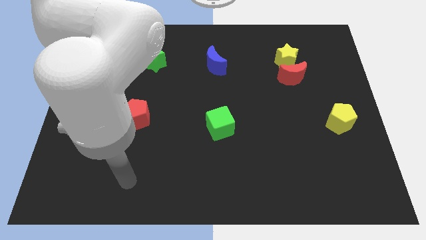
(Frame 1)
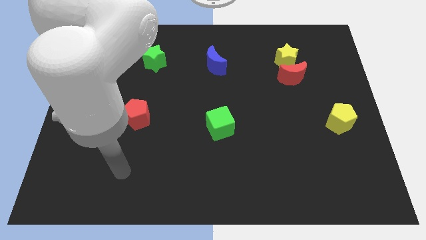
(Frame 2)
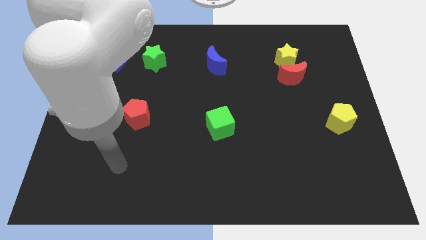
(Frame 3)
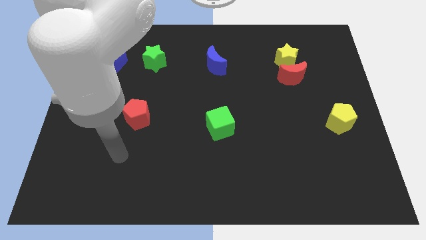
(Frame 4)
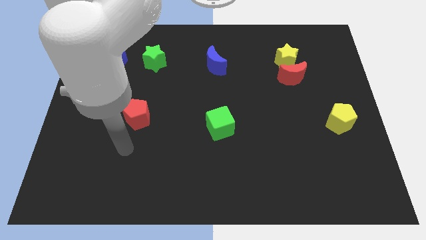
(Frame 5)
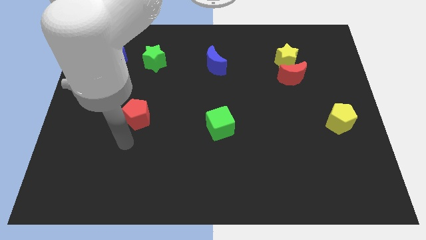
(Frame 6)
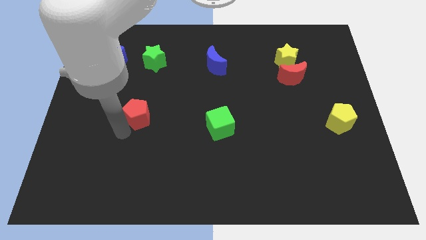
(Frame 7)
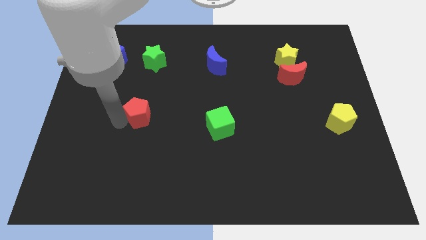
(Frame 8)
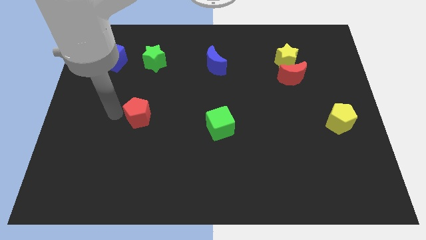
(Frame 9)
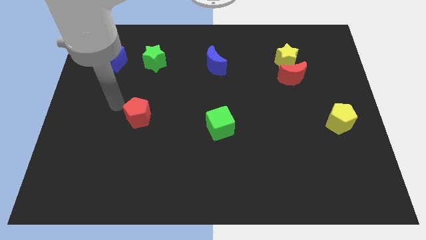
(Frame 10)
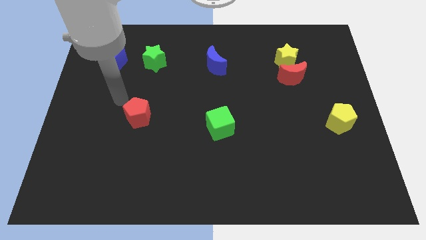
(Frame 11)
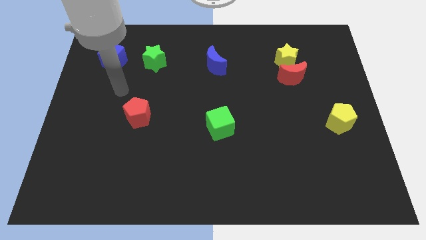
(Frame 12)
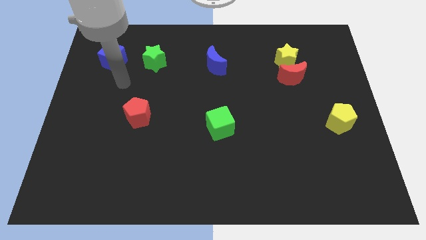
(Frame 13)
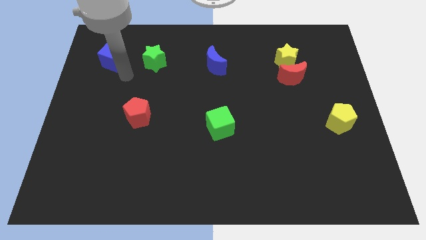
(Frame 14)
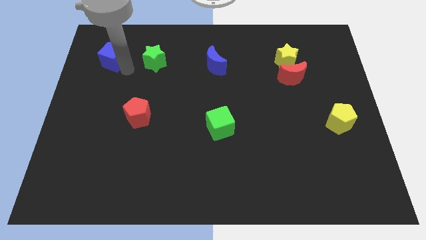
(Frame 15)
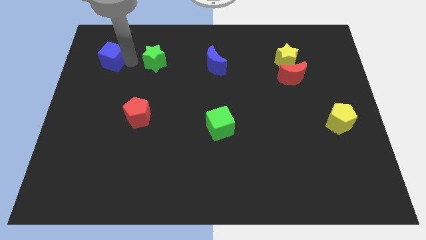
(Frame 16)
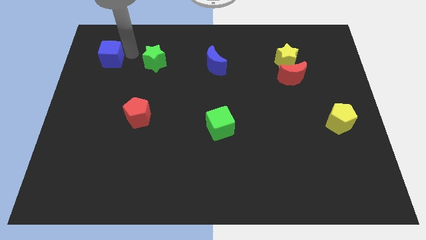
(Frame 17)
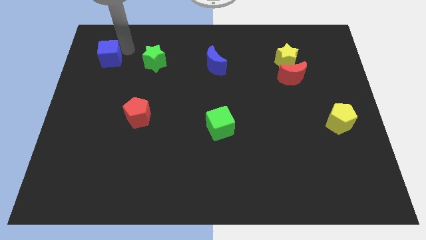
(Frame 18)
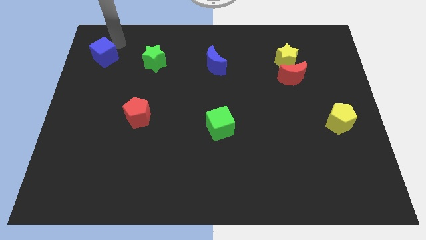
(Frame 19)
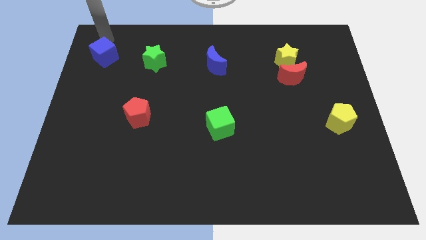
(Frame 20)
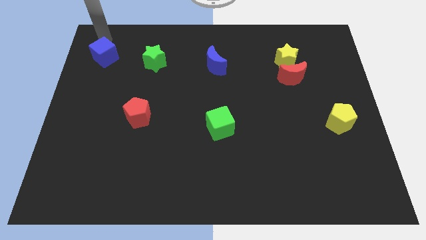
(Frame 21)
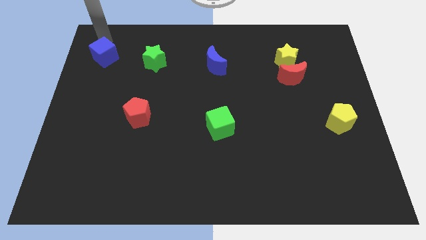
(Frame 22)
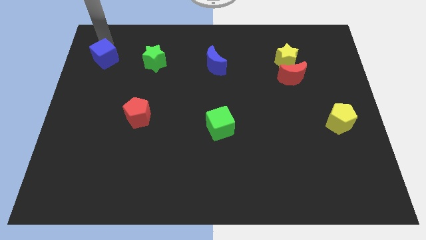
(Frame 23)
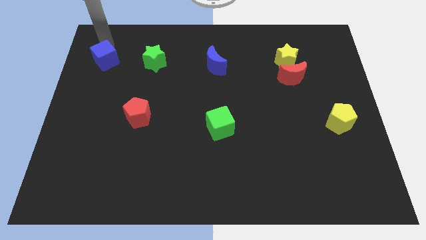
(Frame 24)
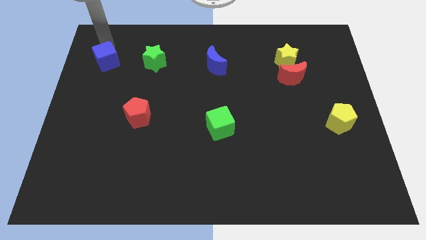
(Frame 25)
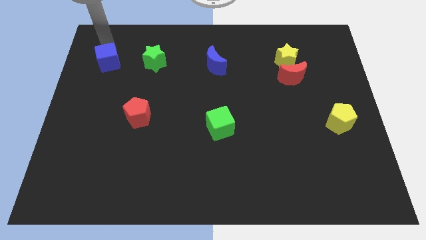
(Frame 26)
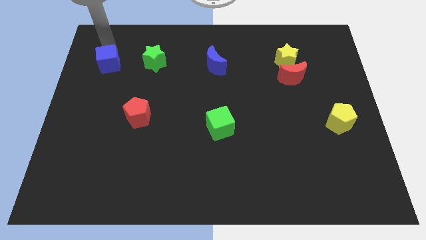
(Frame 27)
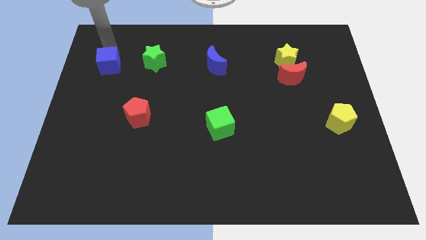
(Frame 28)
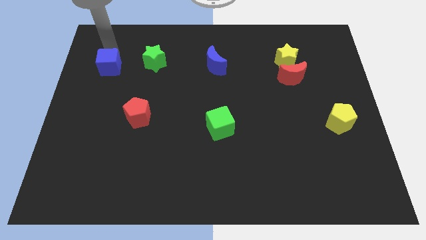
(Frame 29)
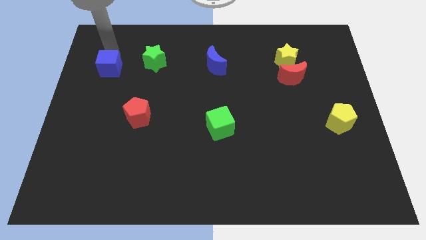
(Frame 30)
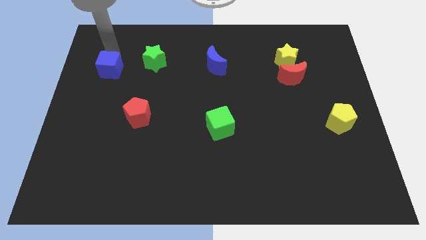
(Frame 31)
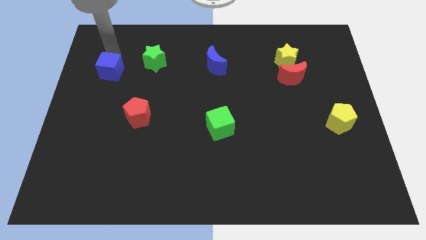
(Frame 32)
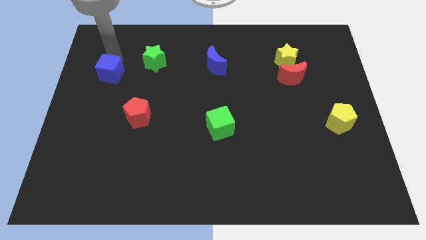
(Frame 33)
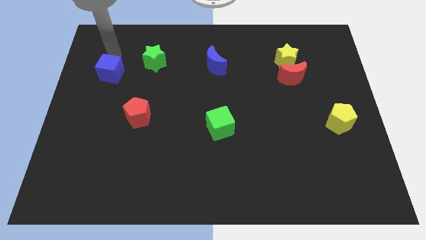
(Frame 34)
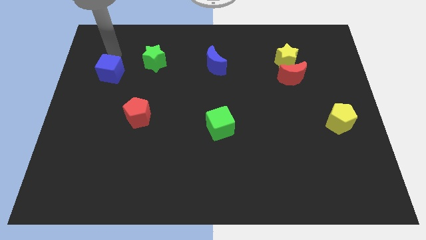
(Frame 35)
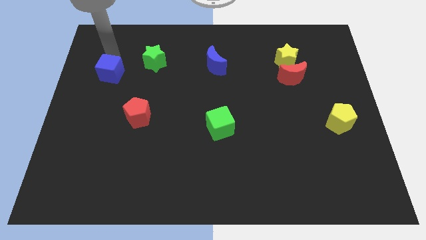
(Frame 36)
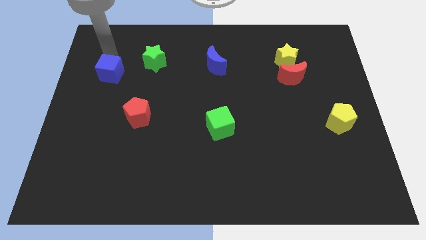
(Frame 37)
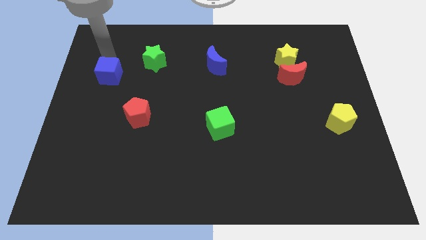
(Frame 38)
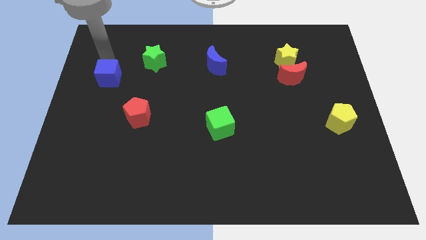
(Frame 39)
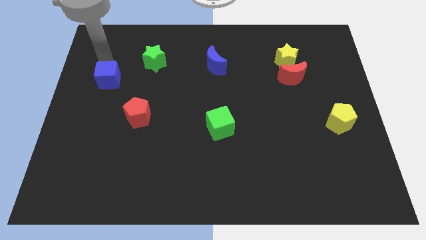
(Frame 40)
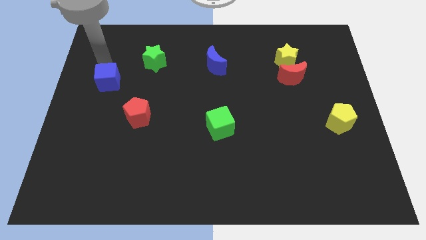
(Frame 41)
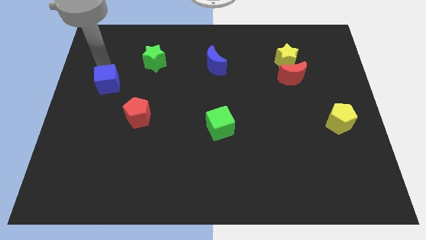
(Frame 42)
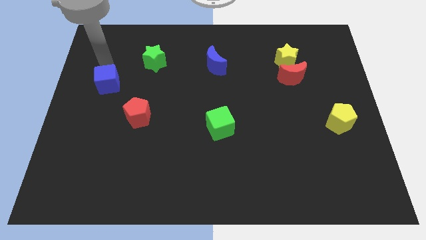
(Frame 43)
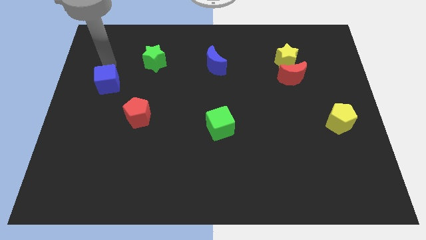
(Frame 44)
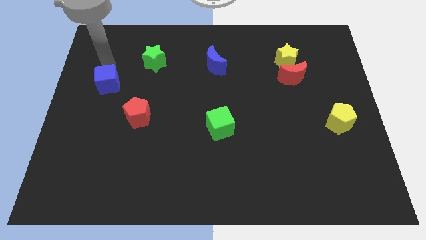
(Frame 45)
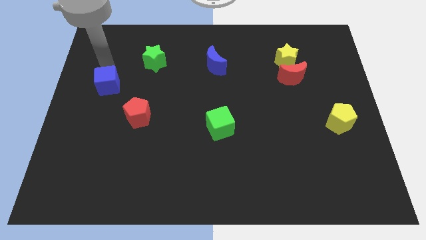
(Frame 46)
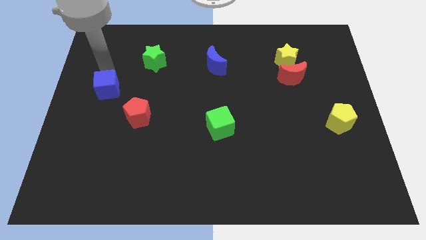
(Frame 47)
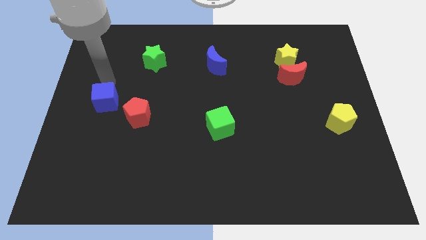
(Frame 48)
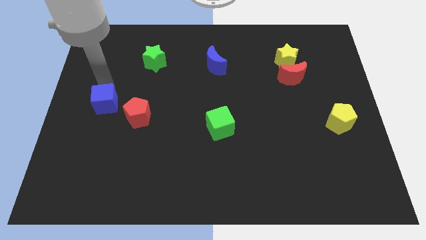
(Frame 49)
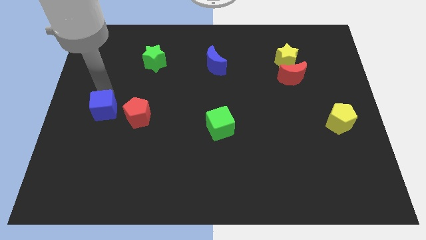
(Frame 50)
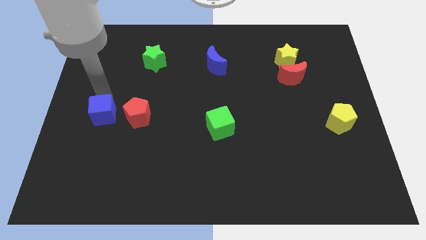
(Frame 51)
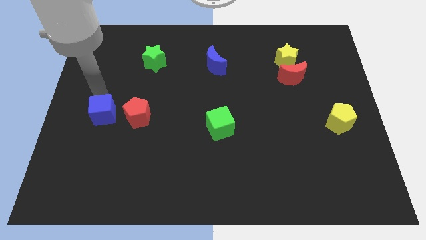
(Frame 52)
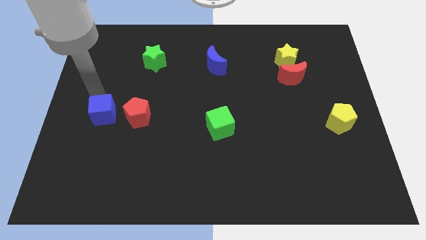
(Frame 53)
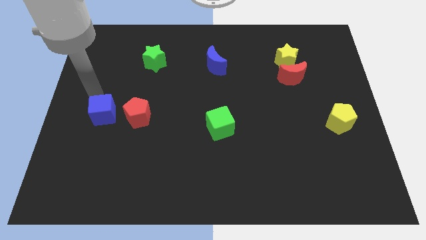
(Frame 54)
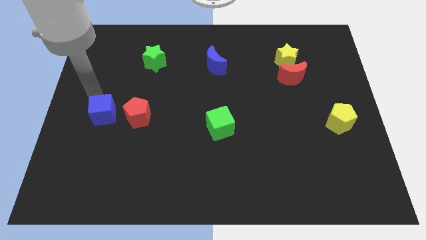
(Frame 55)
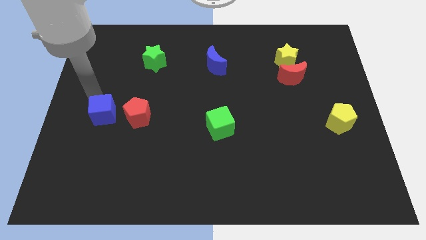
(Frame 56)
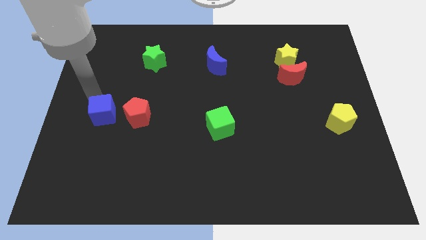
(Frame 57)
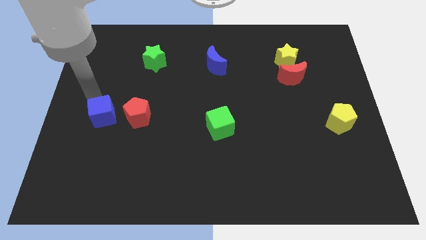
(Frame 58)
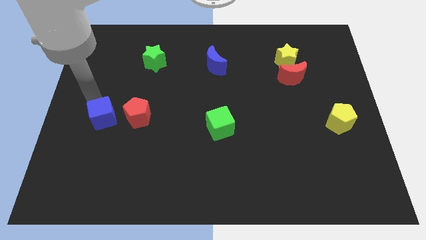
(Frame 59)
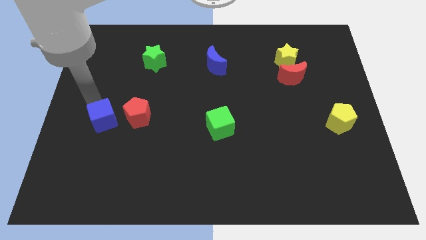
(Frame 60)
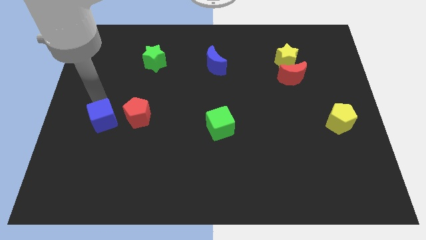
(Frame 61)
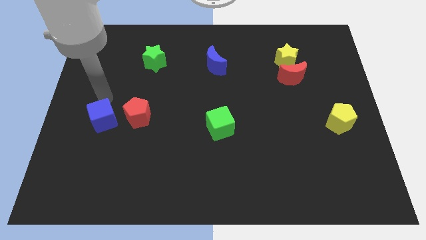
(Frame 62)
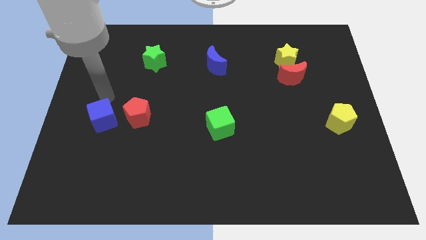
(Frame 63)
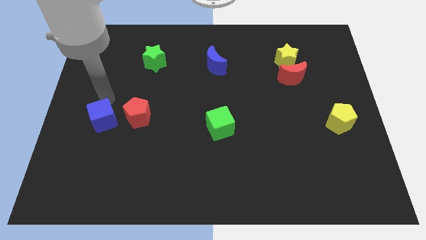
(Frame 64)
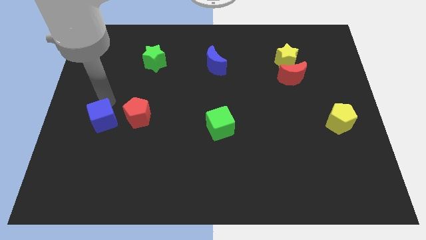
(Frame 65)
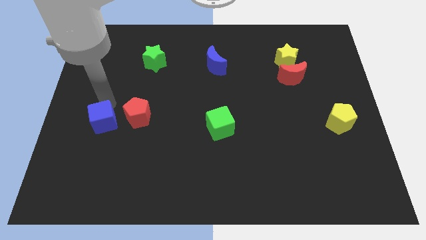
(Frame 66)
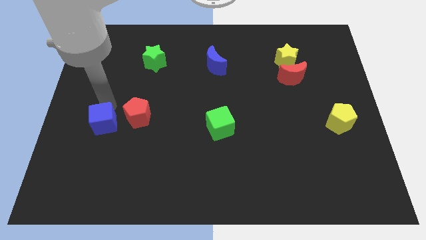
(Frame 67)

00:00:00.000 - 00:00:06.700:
move the blue cube down

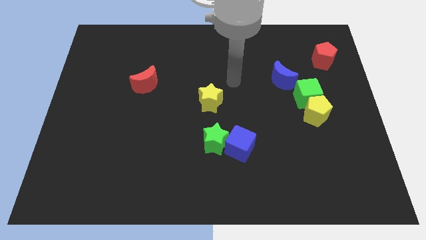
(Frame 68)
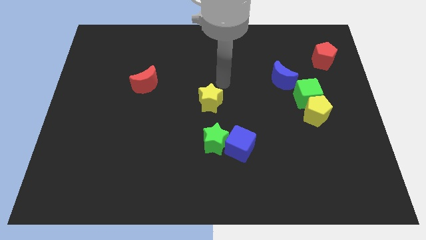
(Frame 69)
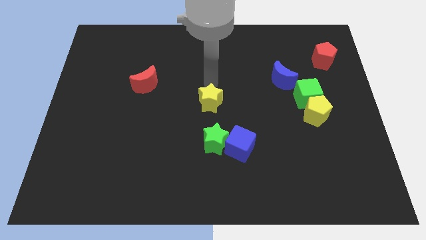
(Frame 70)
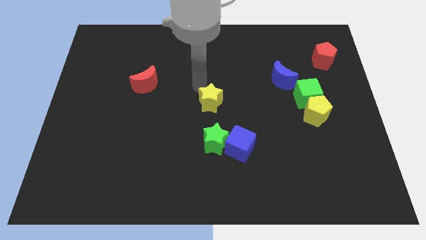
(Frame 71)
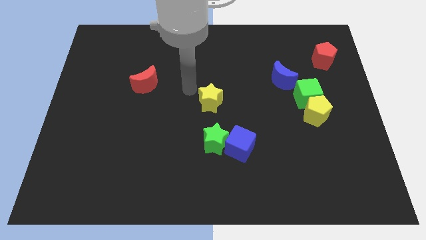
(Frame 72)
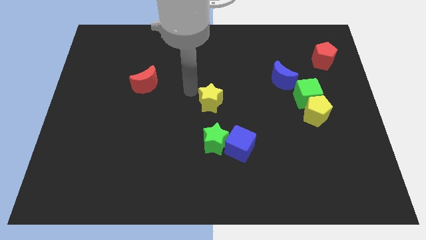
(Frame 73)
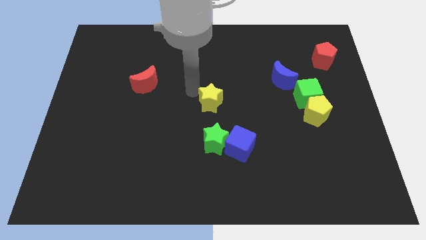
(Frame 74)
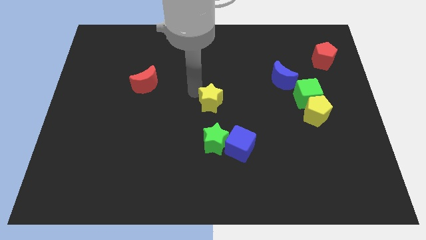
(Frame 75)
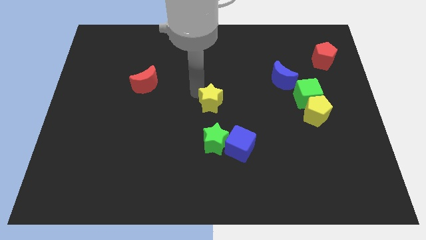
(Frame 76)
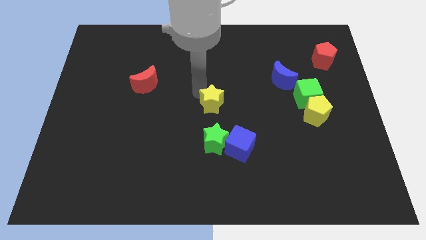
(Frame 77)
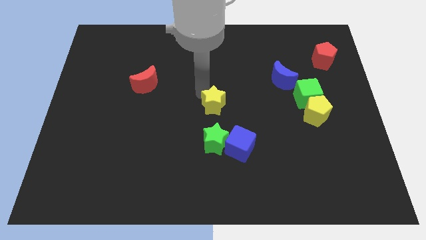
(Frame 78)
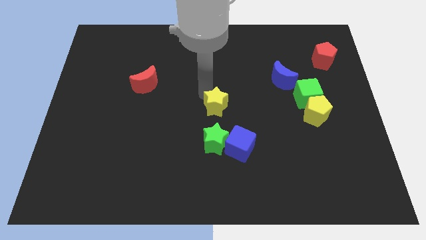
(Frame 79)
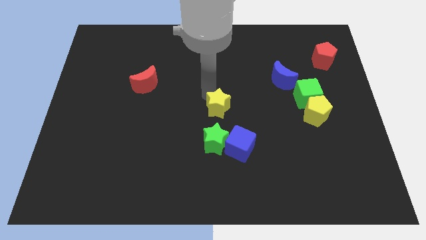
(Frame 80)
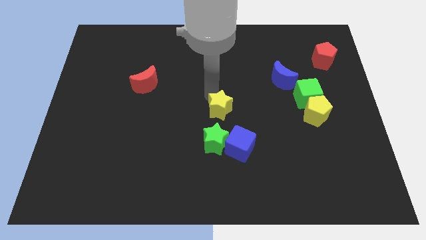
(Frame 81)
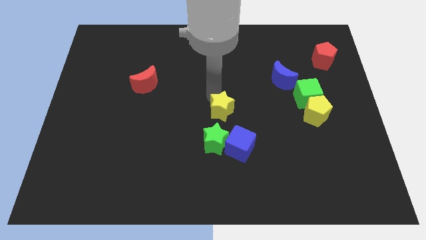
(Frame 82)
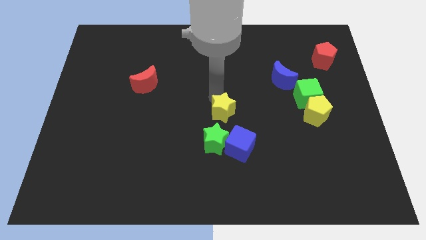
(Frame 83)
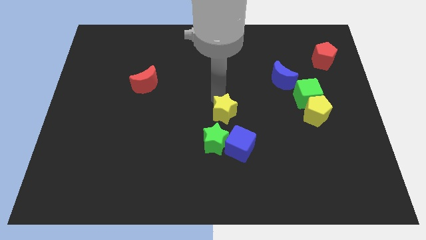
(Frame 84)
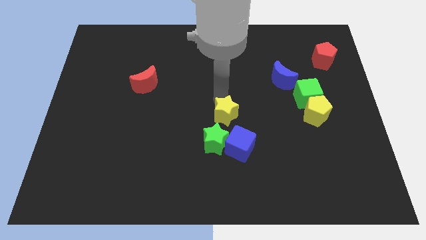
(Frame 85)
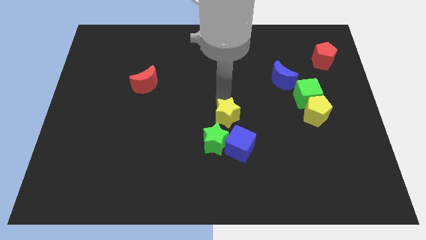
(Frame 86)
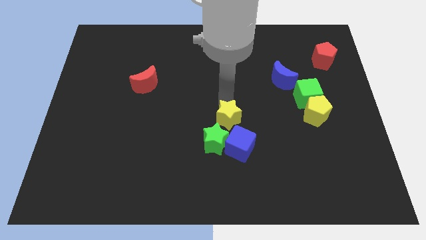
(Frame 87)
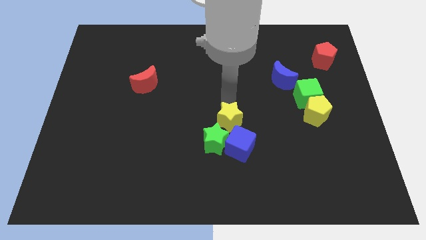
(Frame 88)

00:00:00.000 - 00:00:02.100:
move the yellow star a little bit diagonally down and to the right
